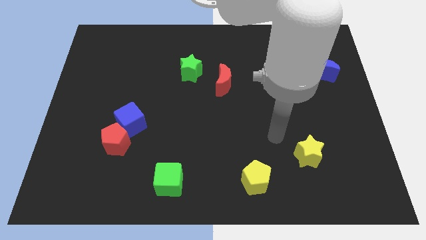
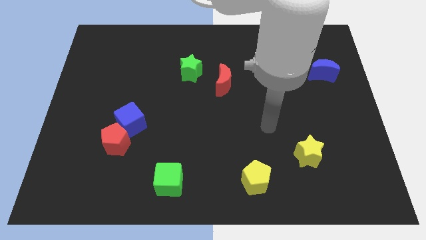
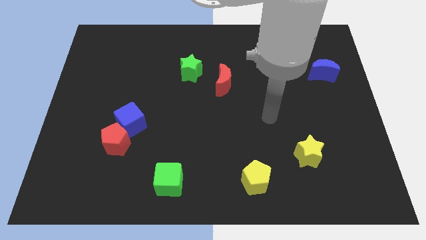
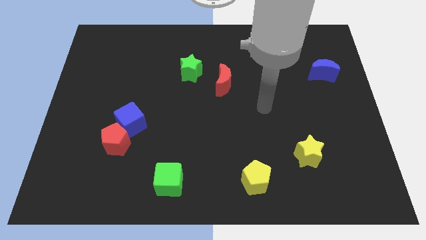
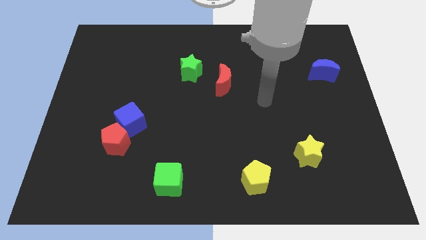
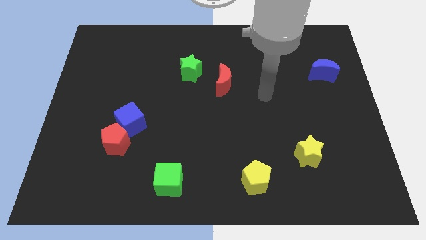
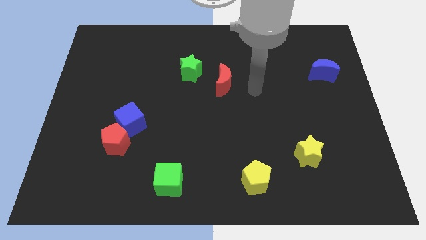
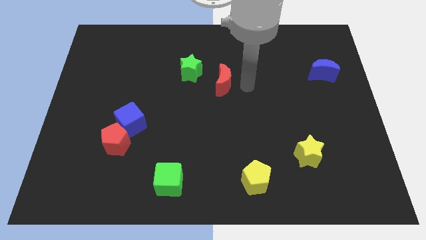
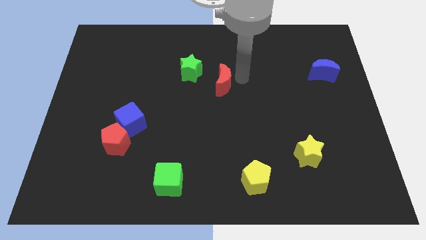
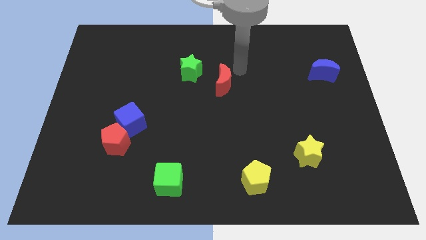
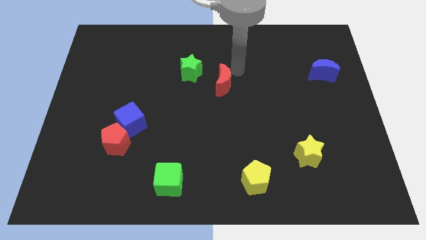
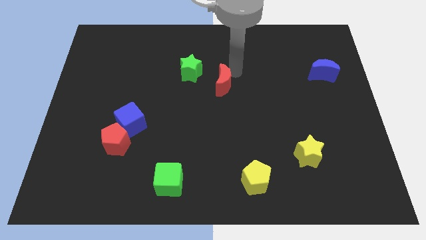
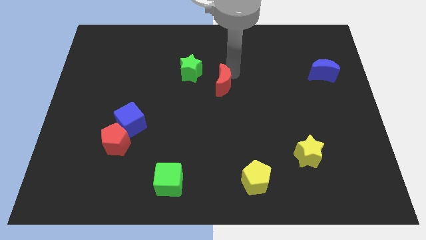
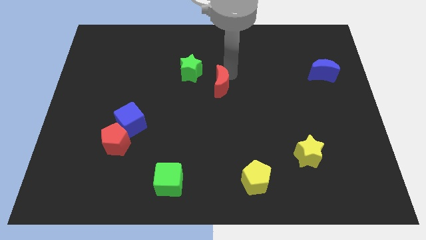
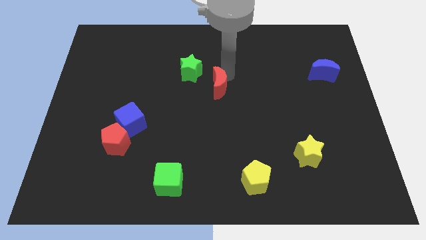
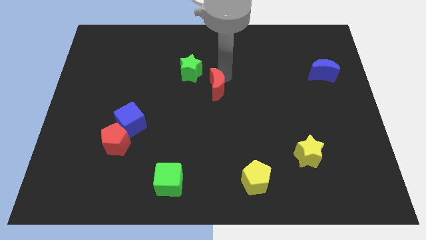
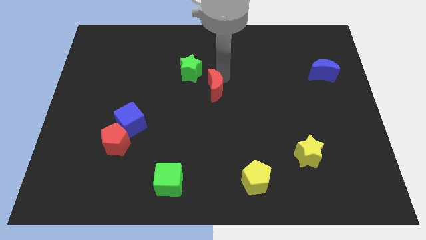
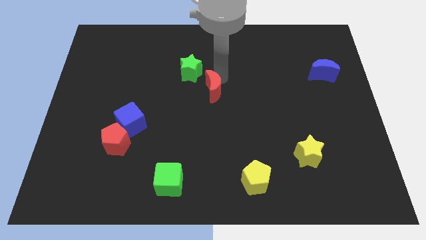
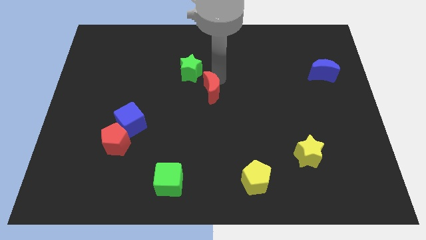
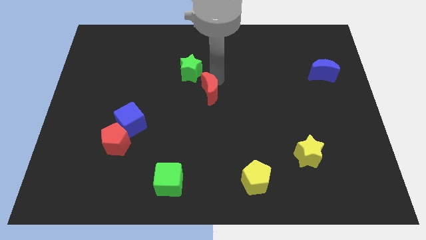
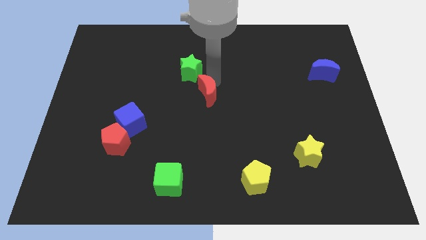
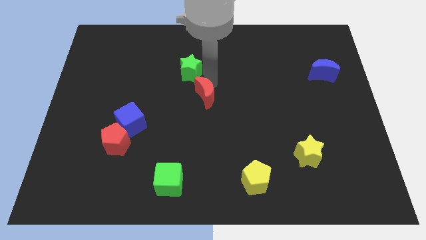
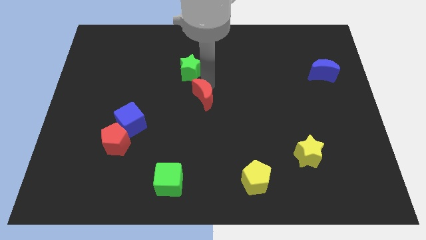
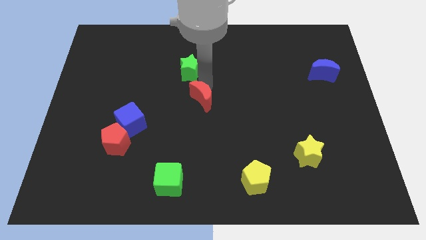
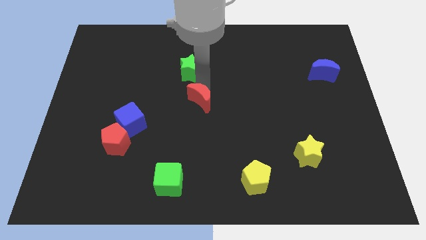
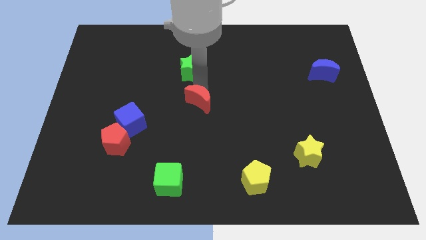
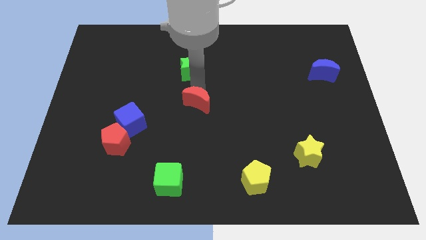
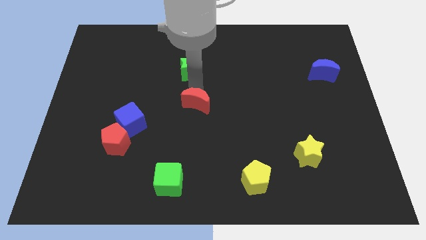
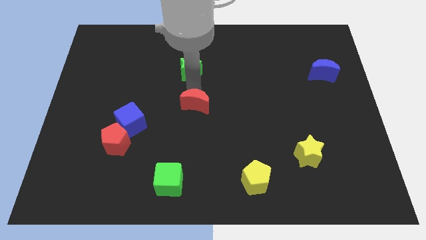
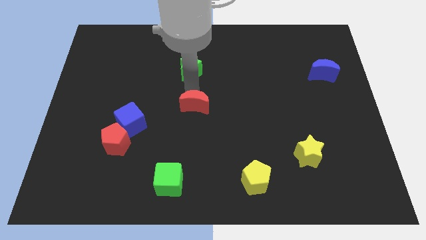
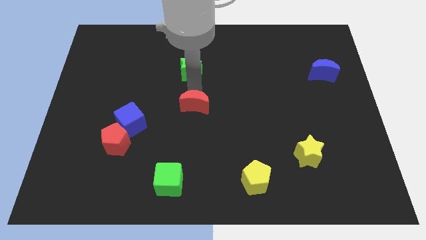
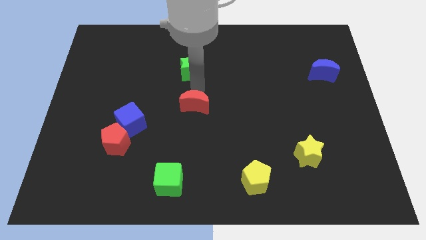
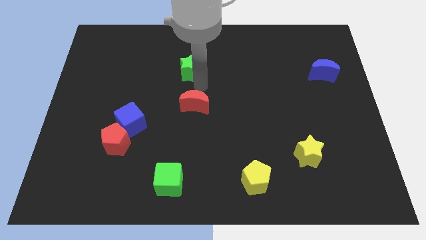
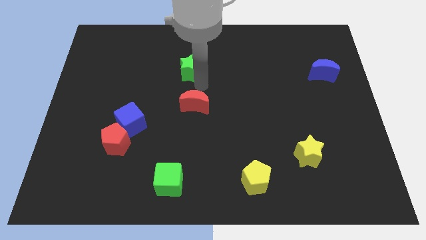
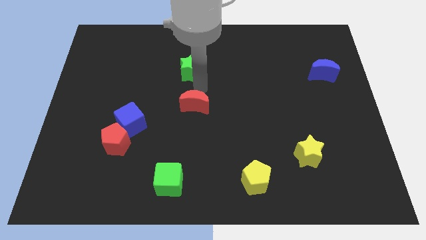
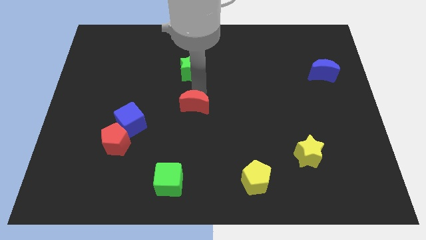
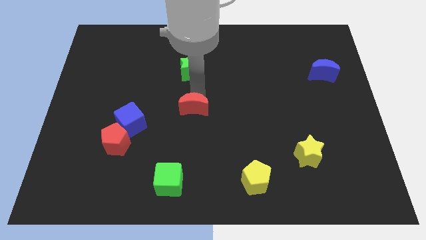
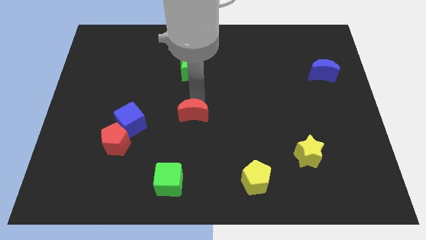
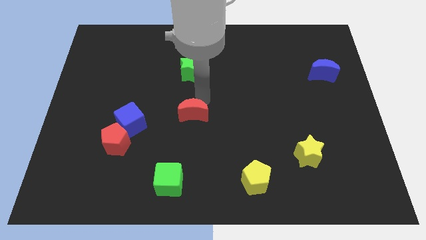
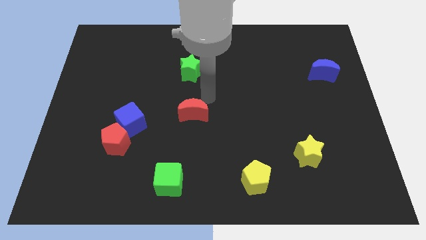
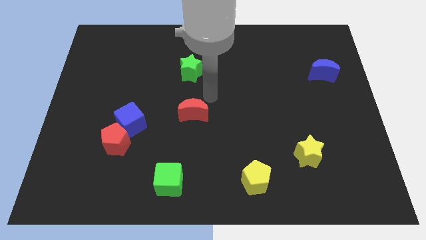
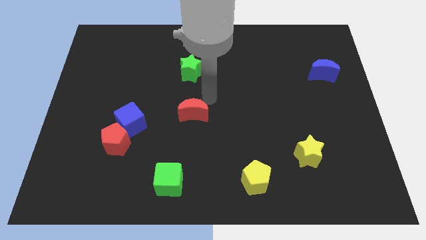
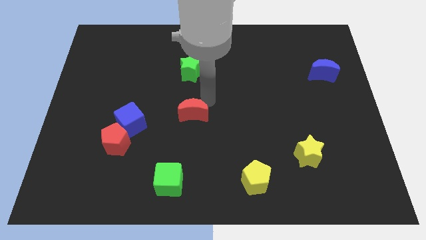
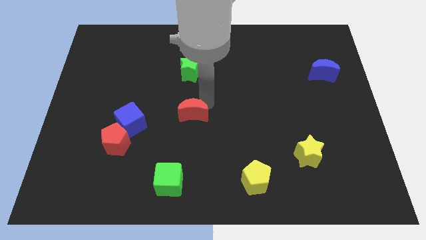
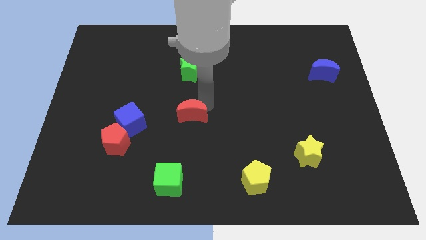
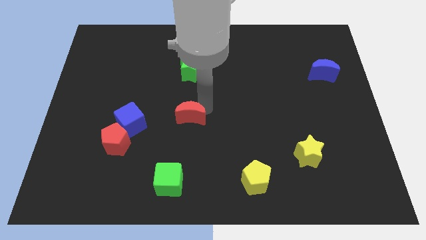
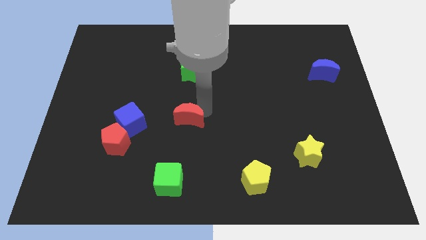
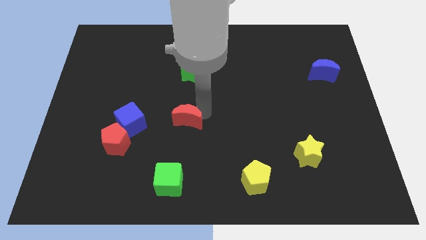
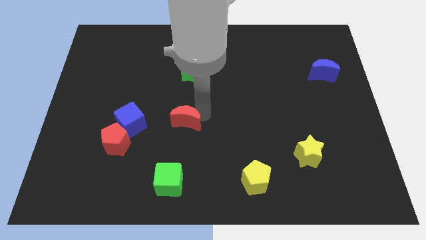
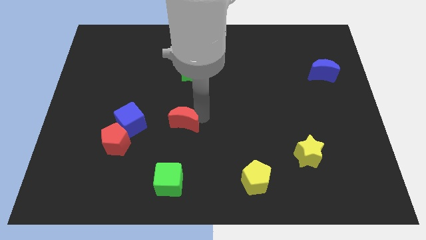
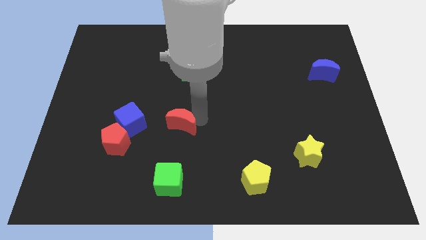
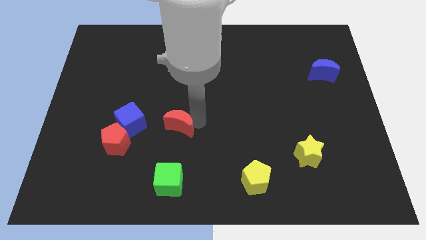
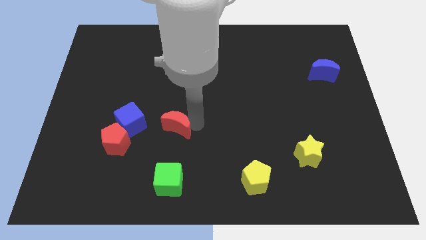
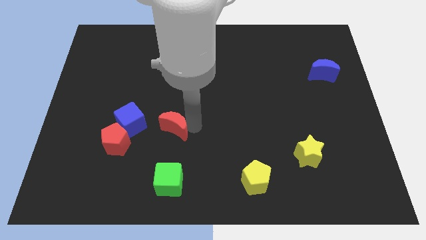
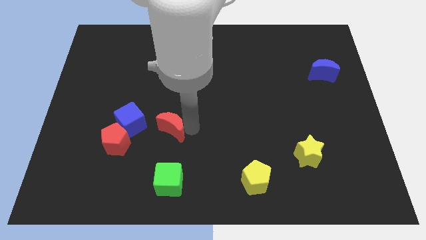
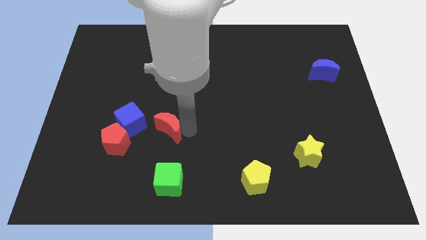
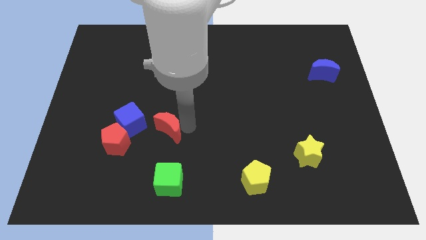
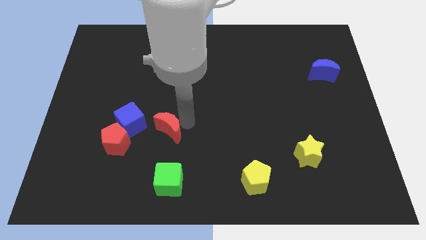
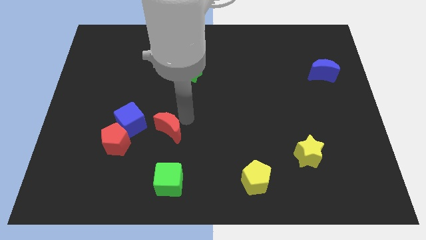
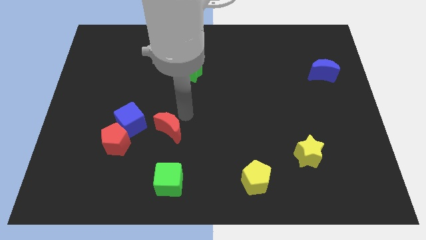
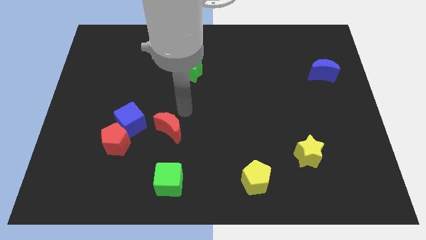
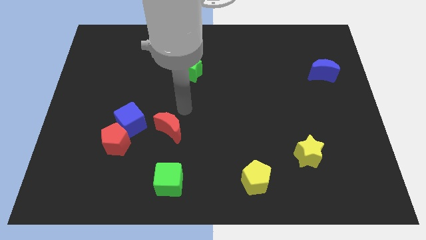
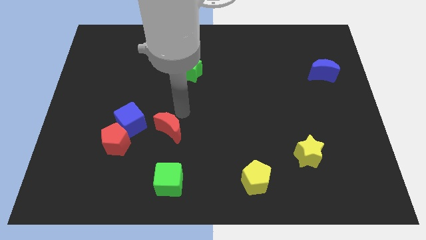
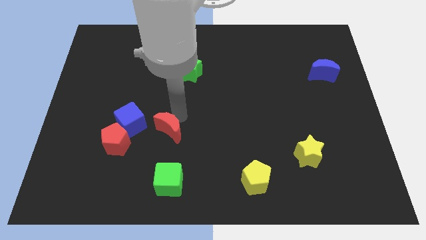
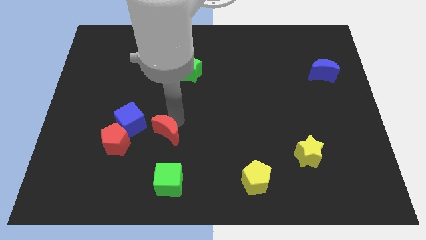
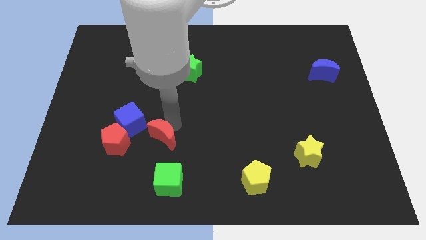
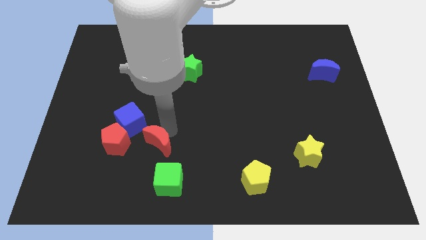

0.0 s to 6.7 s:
move the red moon to the top left side of the green cube
